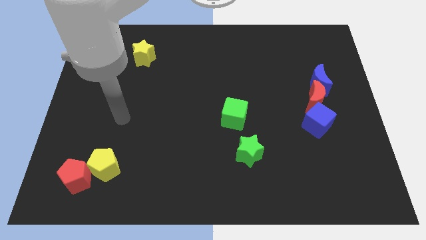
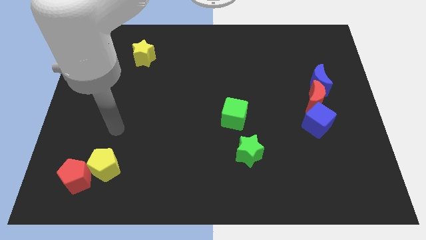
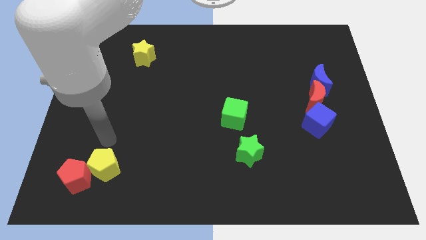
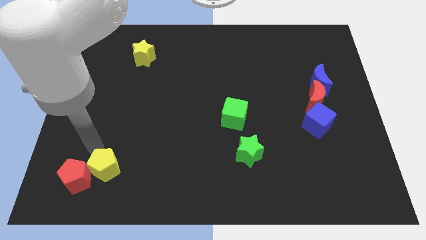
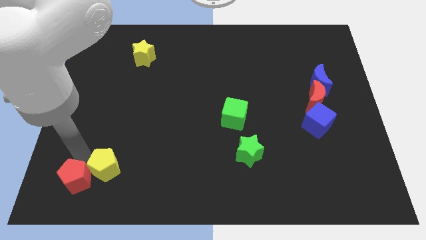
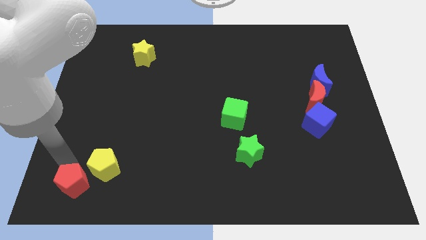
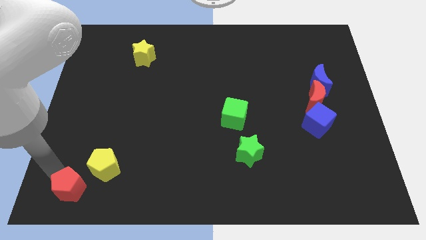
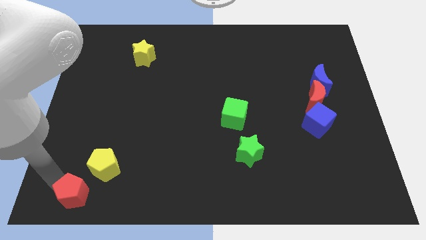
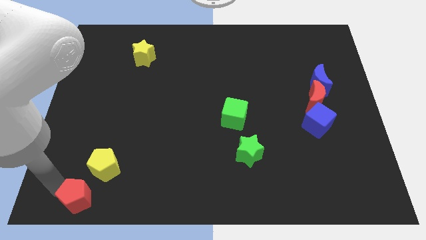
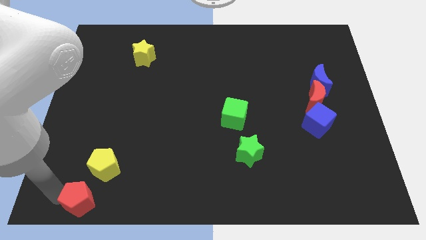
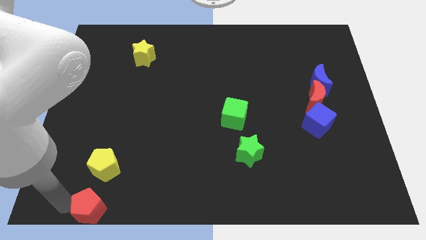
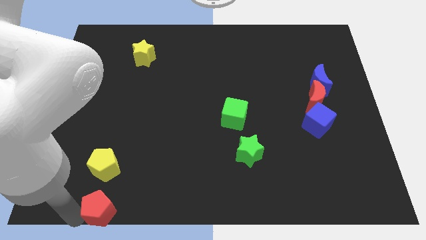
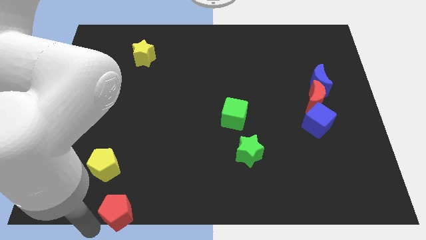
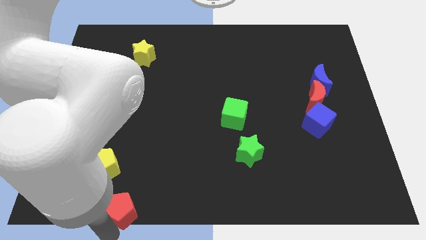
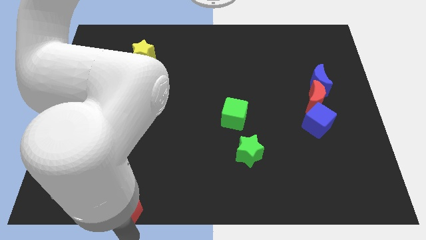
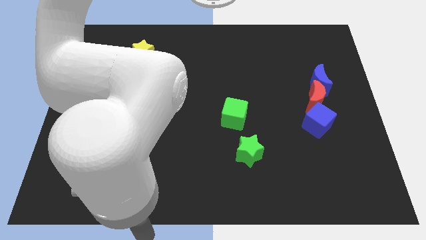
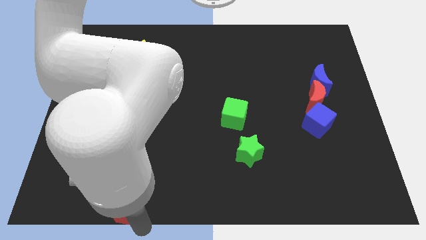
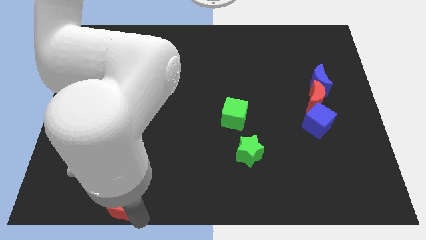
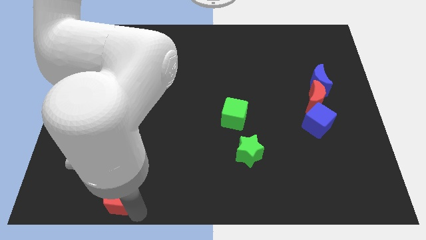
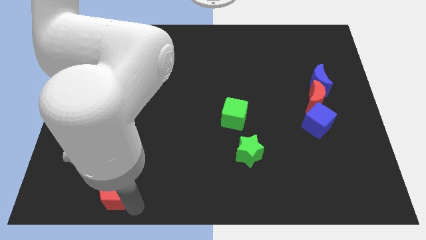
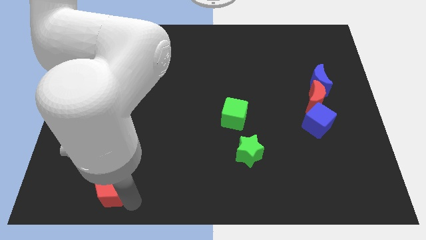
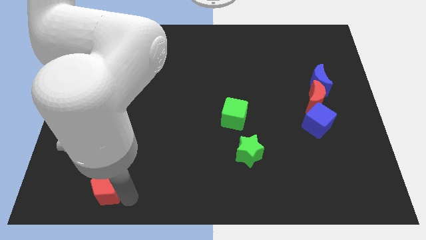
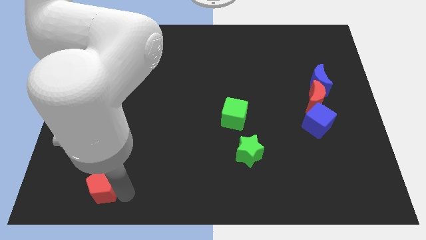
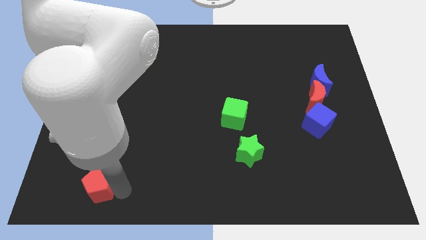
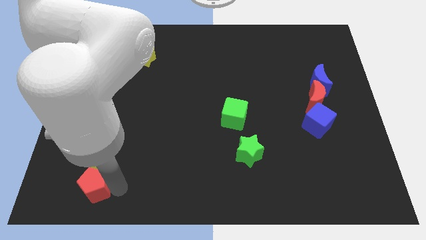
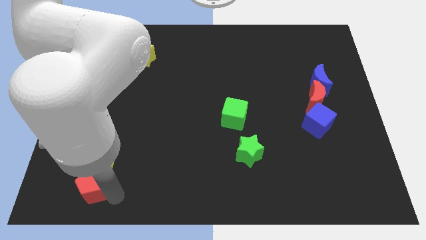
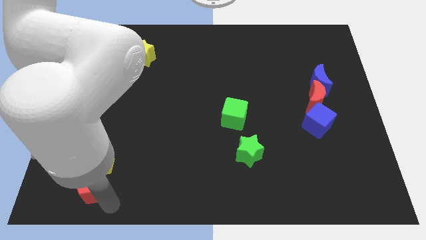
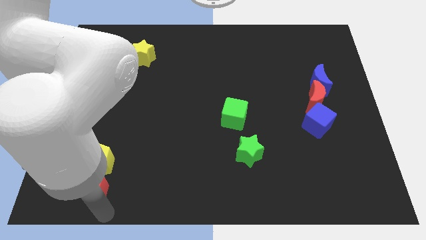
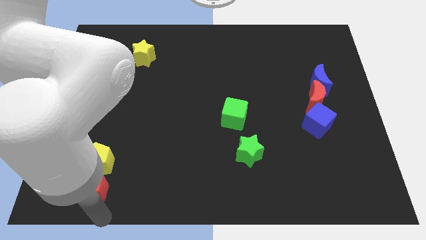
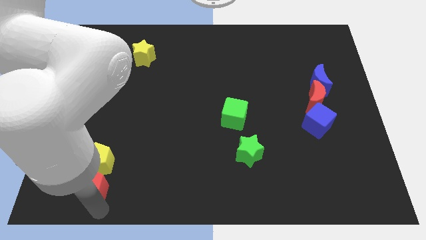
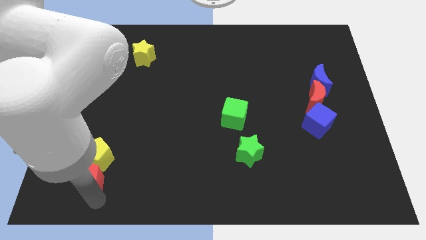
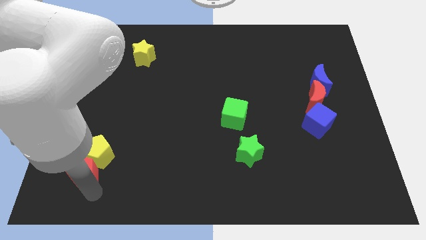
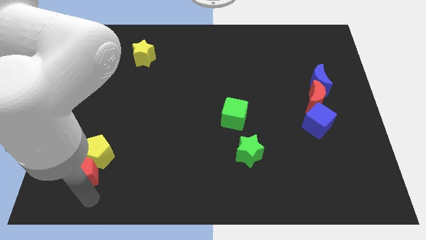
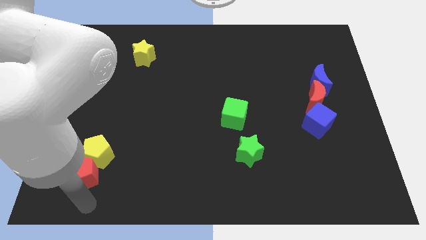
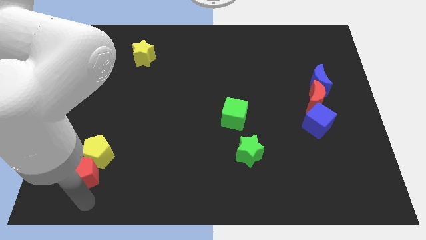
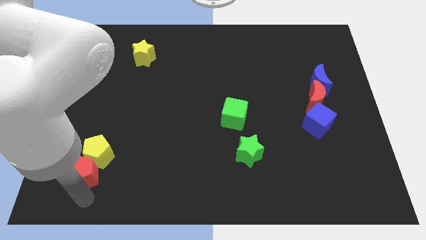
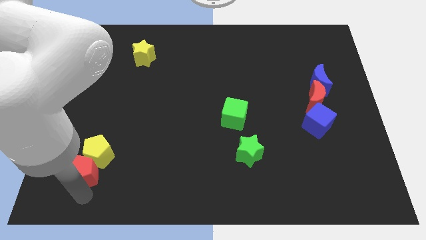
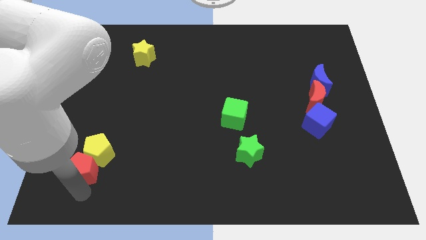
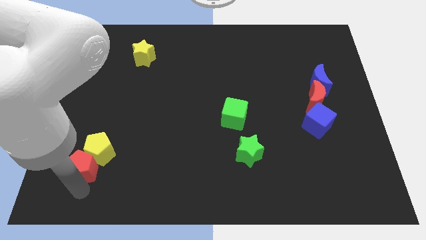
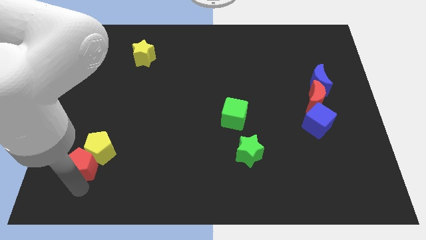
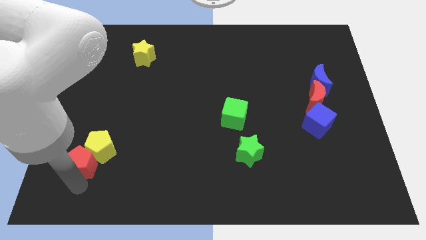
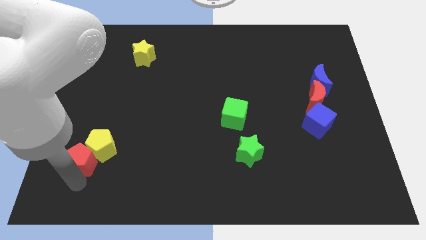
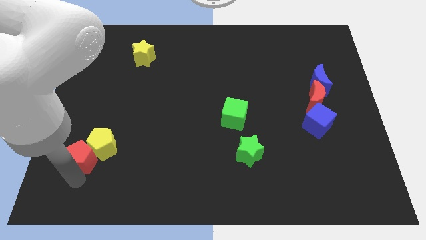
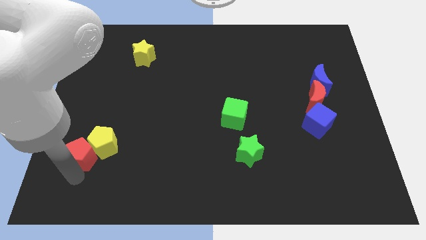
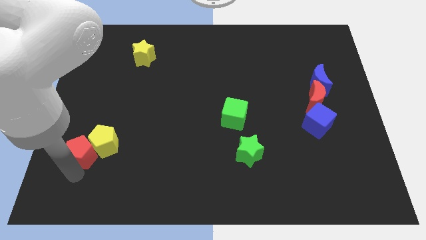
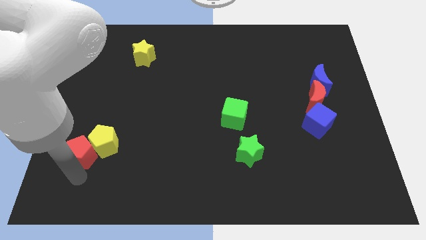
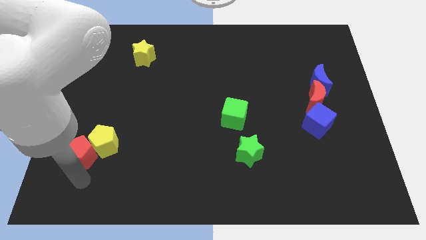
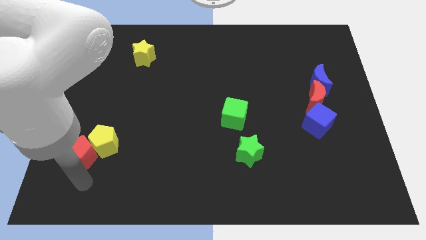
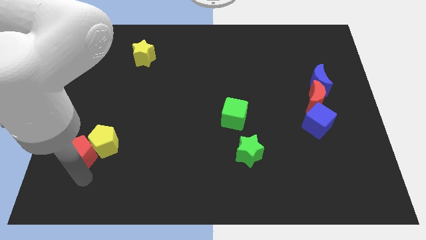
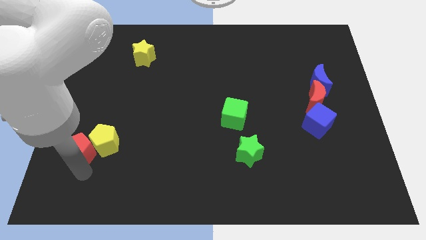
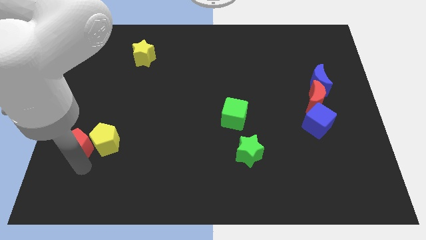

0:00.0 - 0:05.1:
push the red pentagon upwards a bit

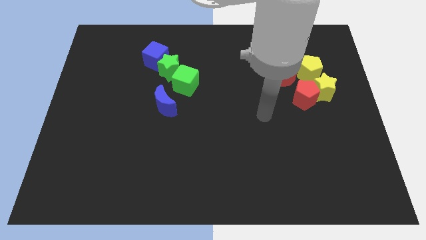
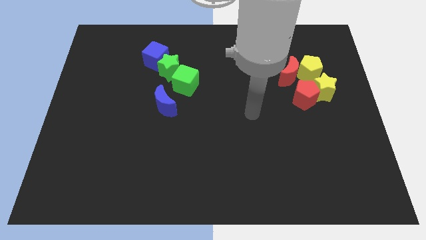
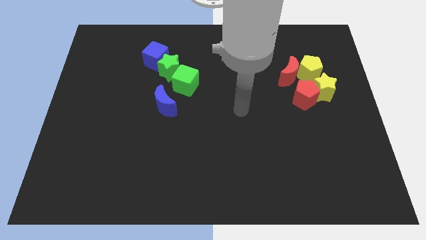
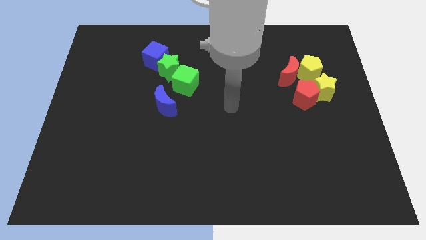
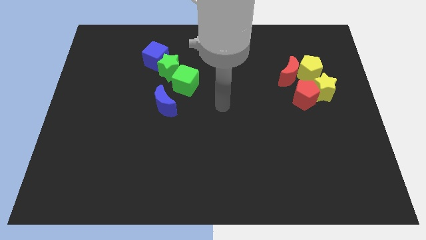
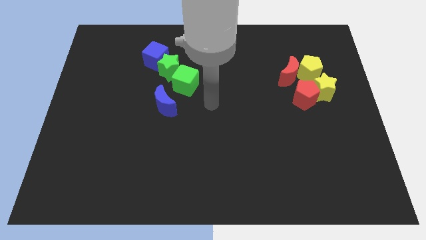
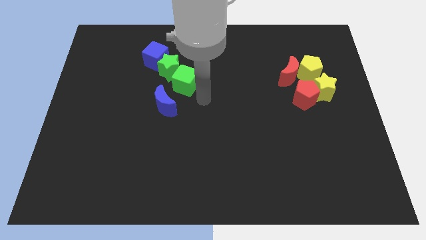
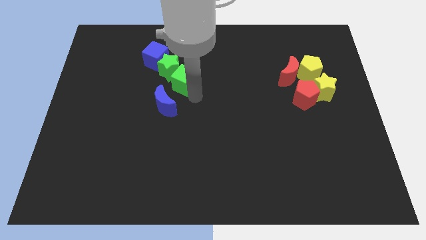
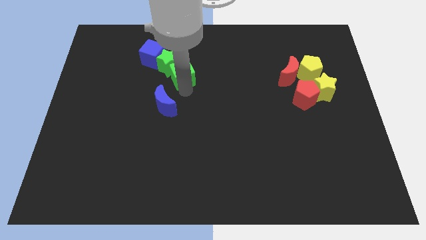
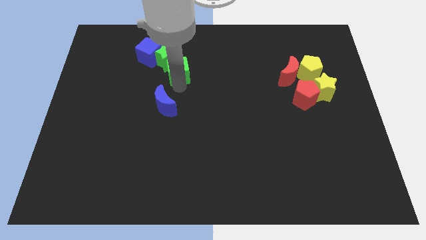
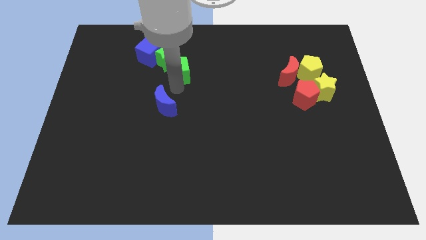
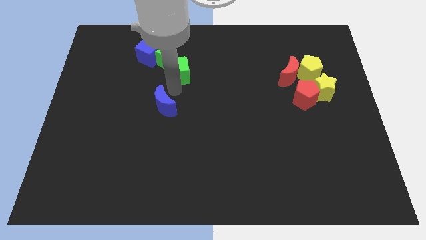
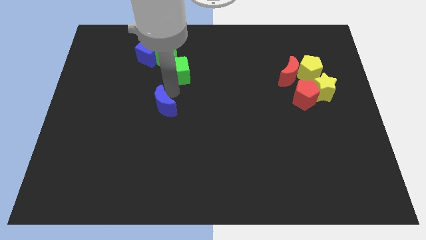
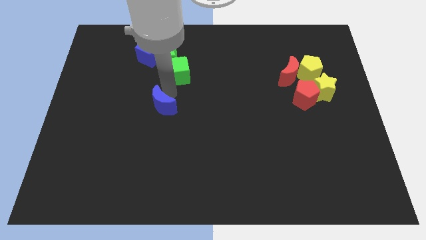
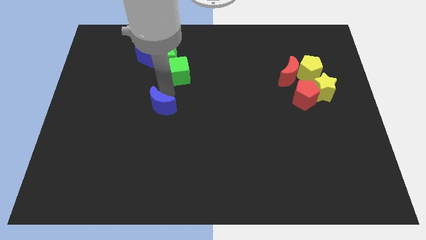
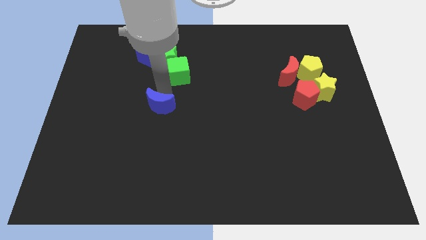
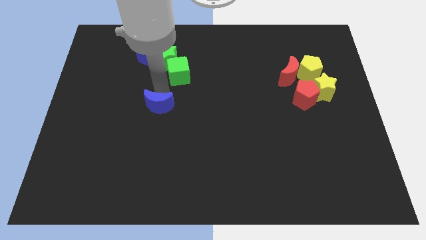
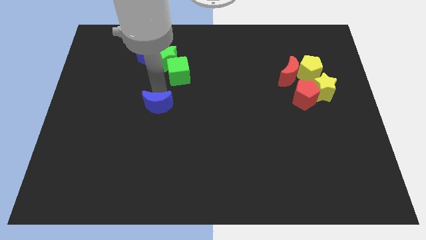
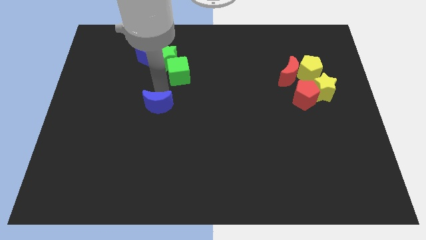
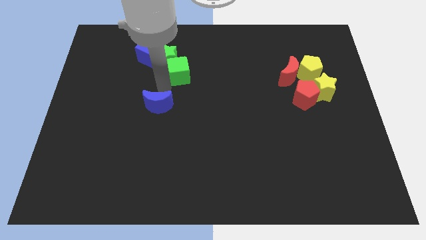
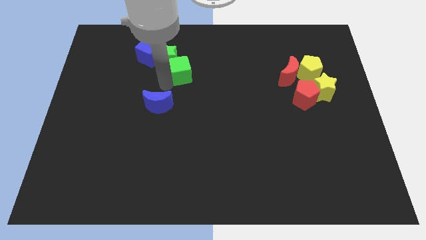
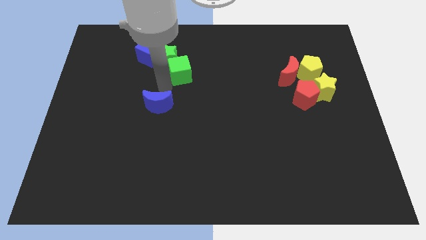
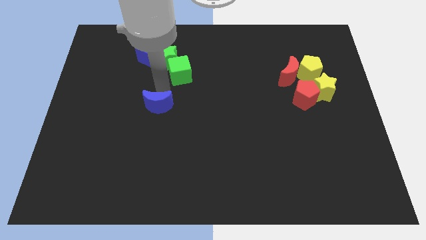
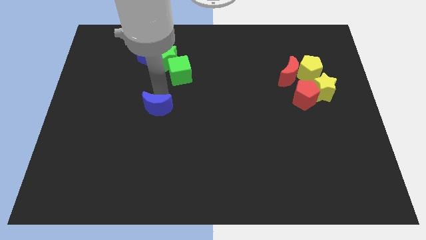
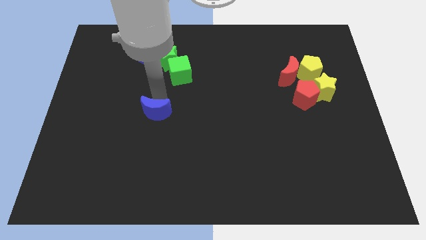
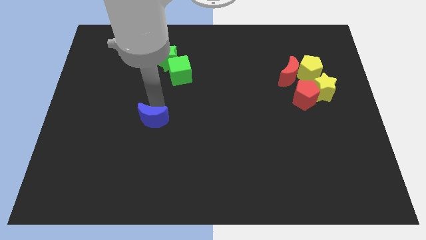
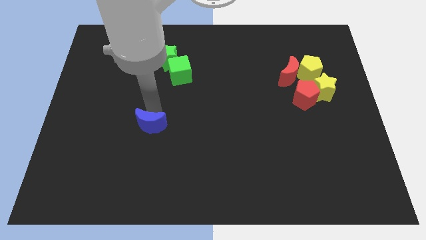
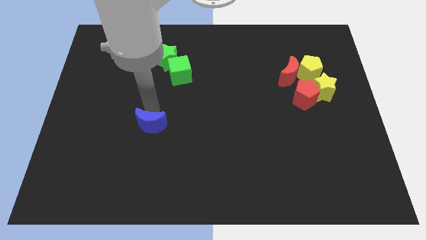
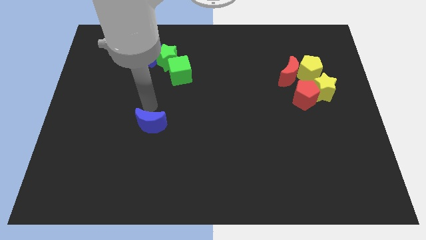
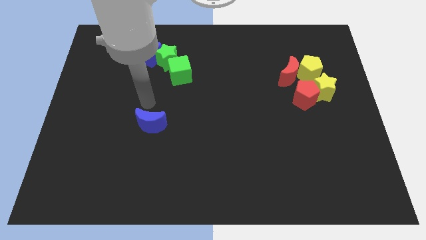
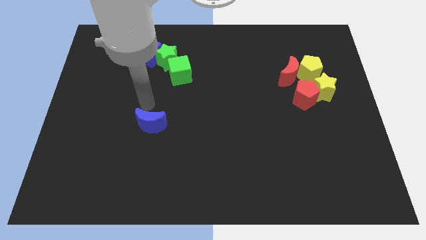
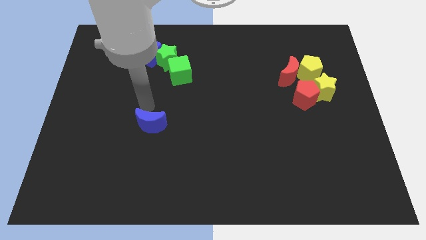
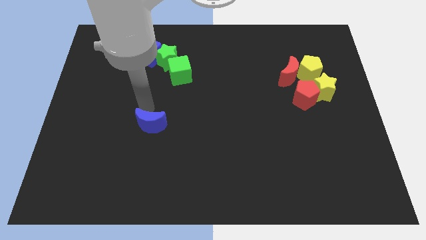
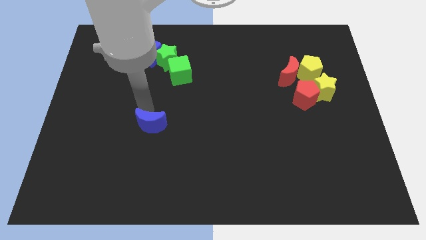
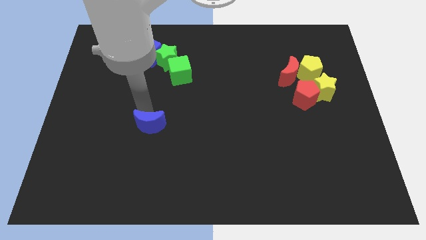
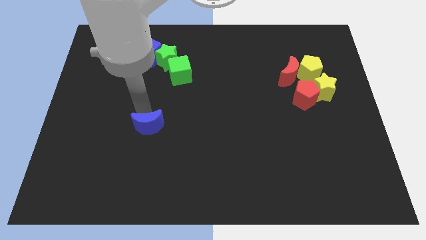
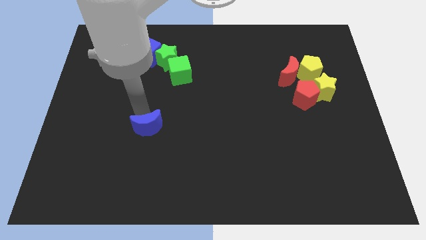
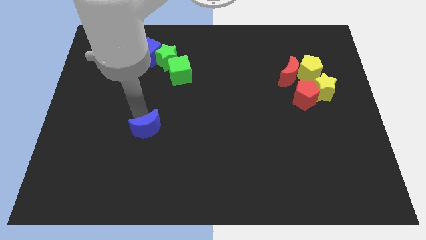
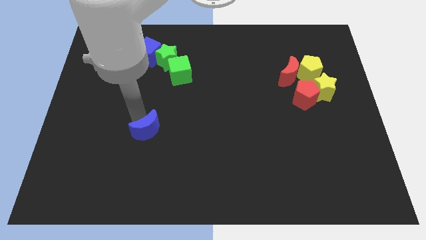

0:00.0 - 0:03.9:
push the blue moon down a little
